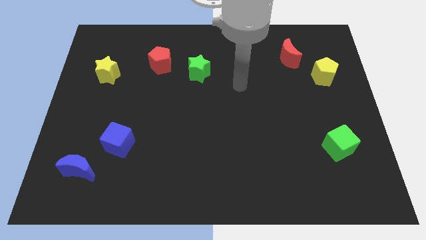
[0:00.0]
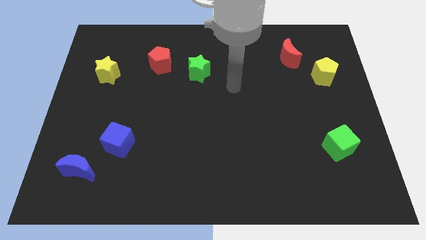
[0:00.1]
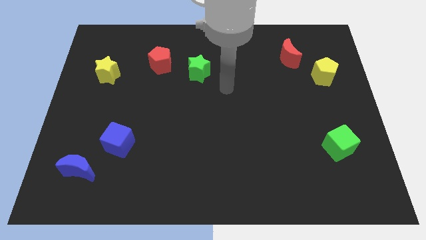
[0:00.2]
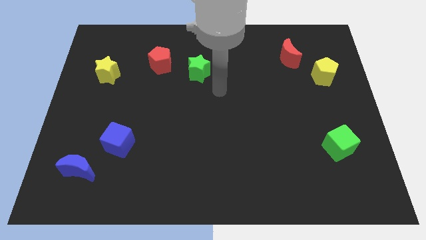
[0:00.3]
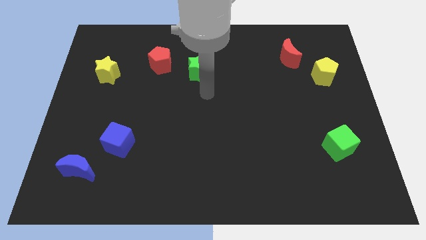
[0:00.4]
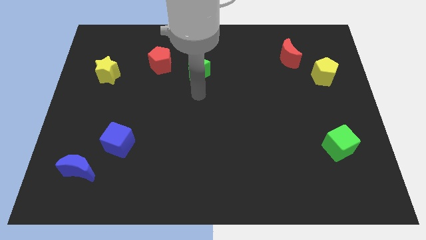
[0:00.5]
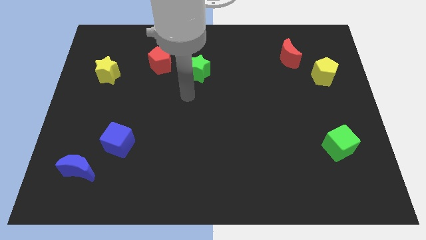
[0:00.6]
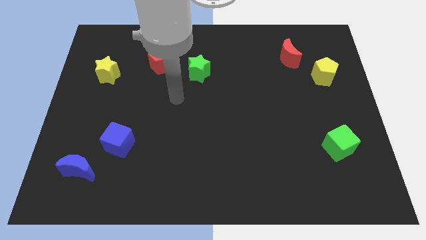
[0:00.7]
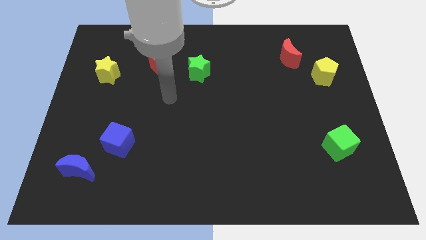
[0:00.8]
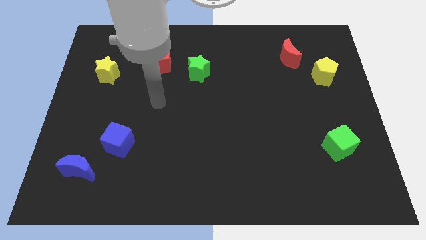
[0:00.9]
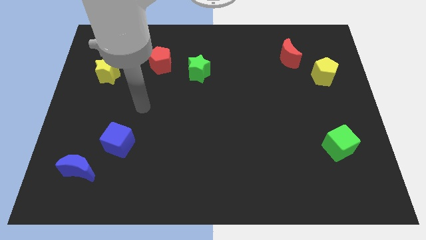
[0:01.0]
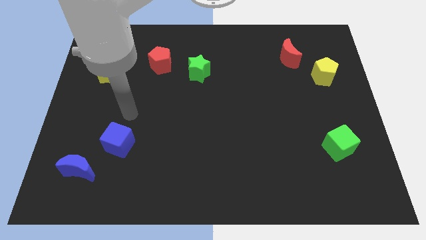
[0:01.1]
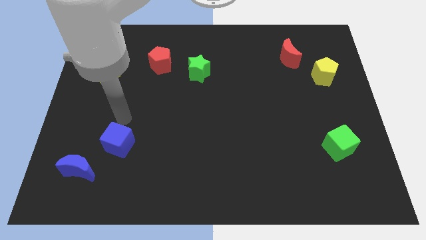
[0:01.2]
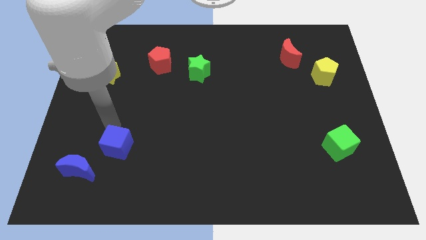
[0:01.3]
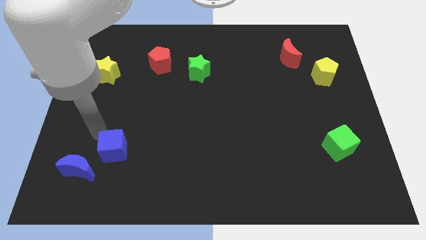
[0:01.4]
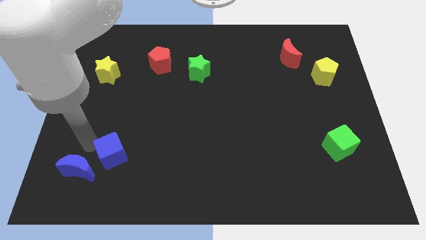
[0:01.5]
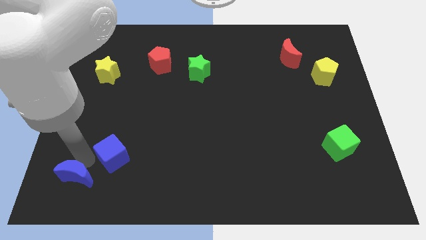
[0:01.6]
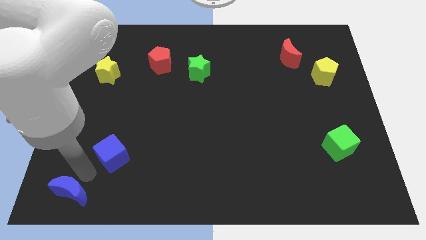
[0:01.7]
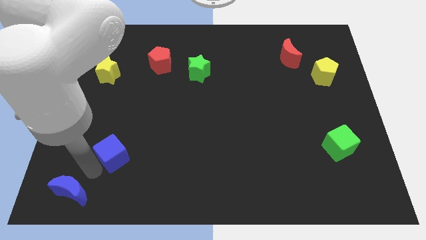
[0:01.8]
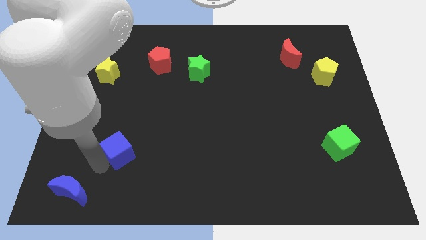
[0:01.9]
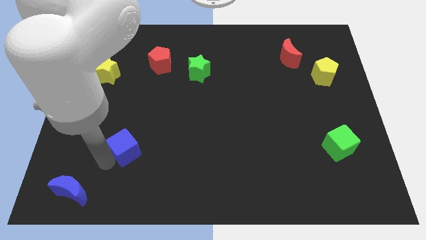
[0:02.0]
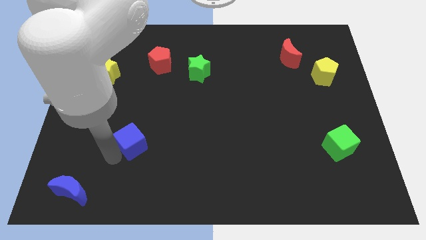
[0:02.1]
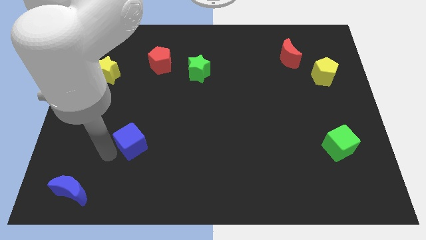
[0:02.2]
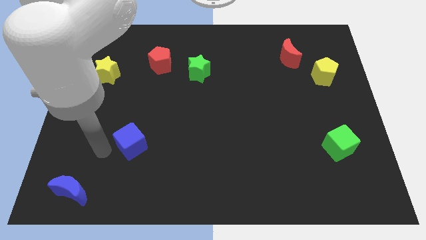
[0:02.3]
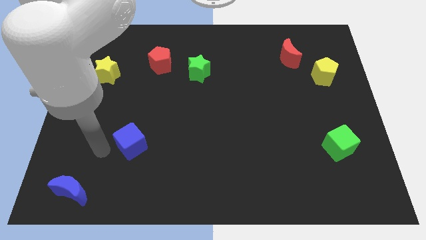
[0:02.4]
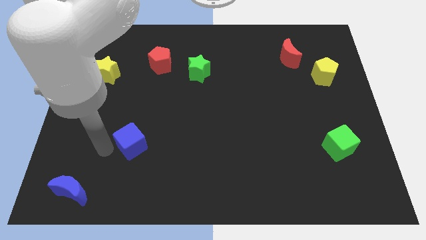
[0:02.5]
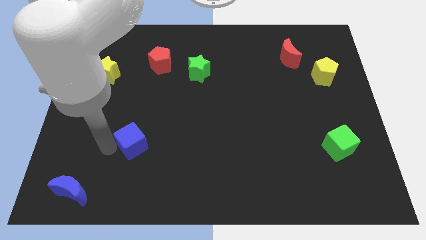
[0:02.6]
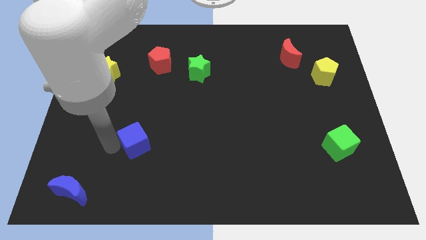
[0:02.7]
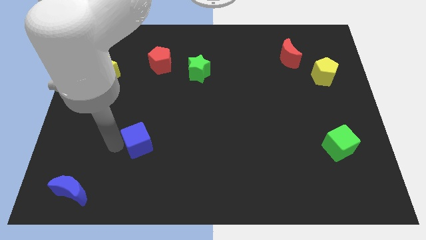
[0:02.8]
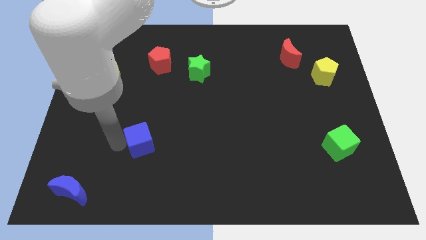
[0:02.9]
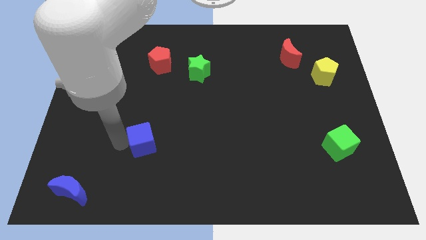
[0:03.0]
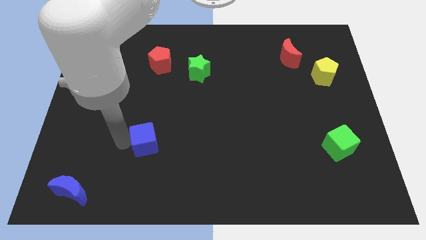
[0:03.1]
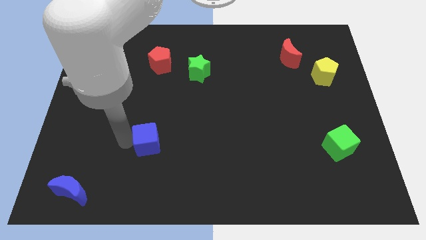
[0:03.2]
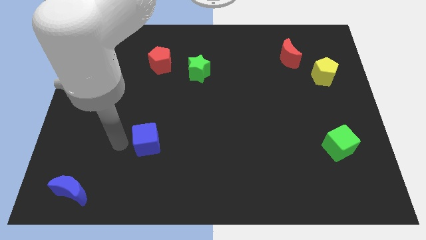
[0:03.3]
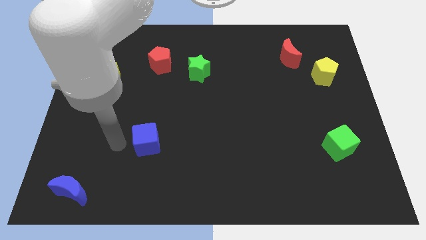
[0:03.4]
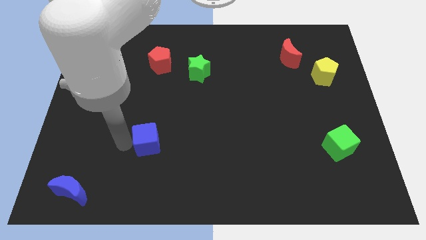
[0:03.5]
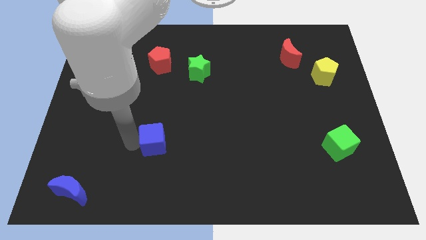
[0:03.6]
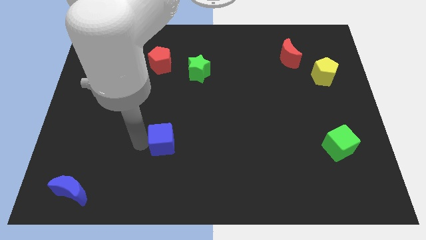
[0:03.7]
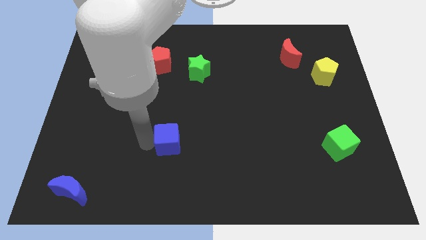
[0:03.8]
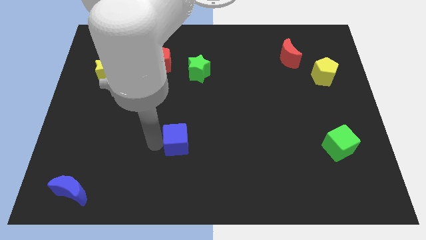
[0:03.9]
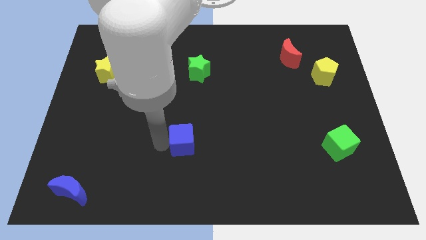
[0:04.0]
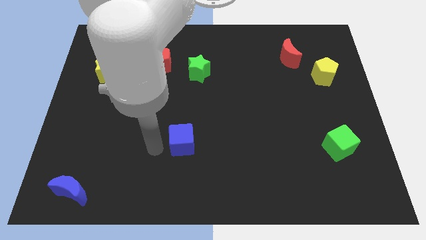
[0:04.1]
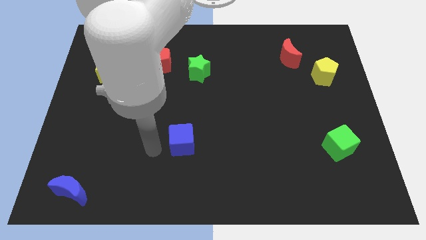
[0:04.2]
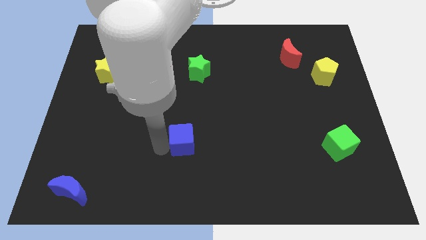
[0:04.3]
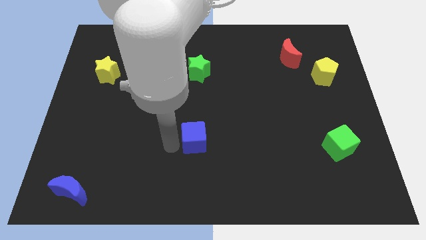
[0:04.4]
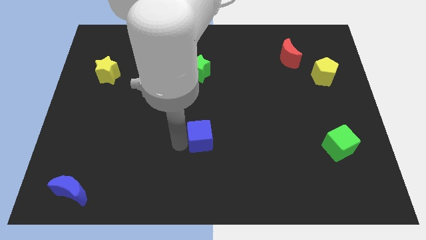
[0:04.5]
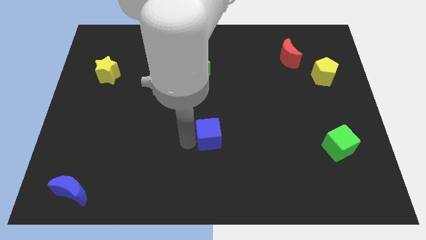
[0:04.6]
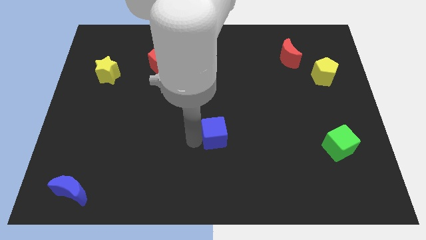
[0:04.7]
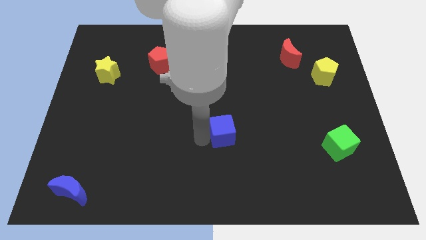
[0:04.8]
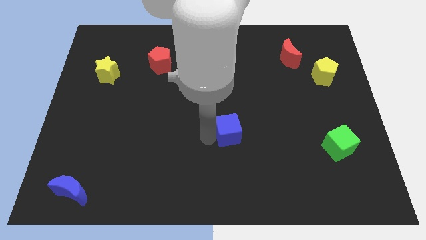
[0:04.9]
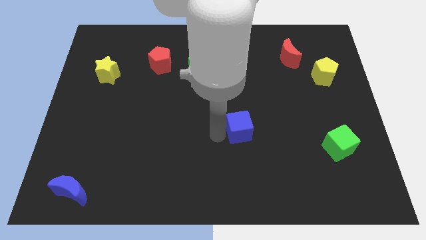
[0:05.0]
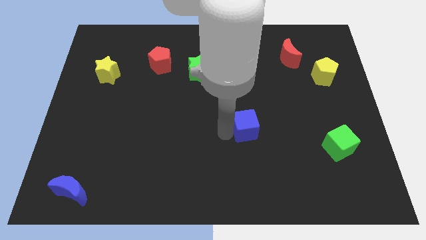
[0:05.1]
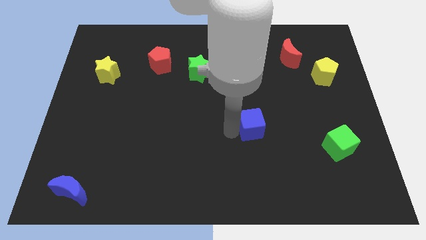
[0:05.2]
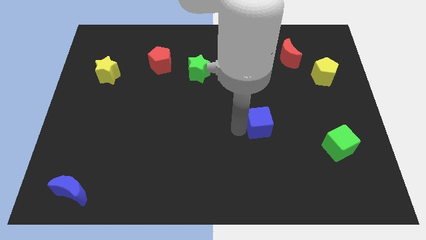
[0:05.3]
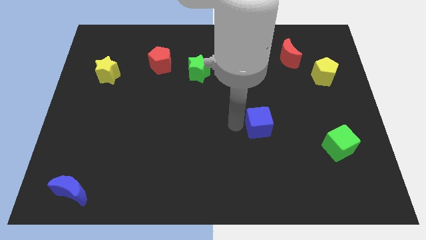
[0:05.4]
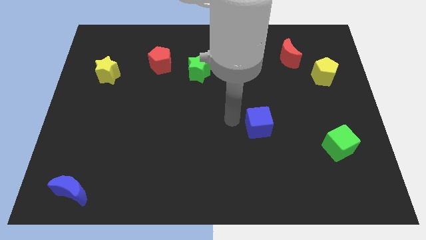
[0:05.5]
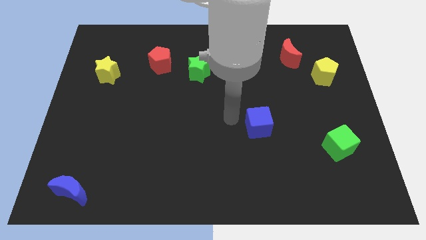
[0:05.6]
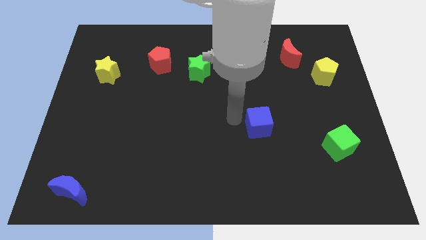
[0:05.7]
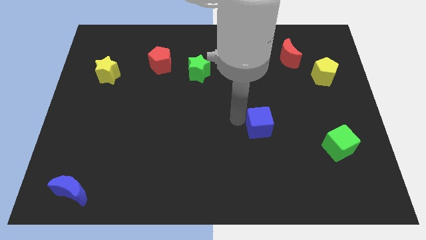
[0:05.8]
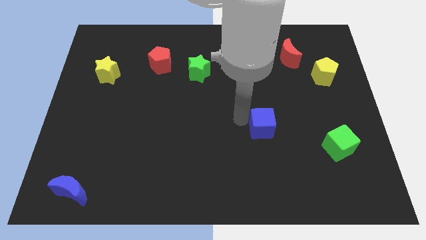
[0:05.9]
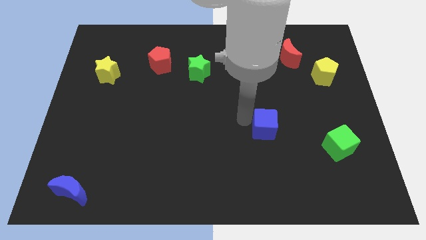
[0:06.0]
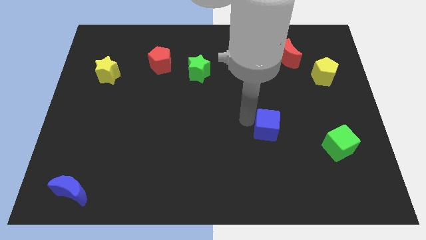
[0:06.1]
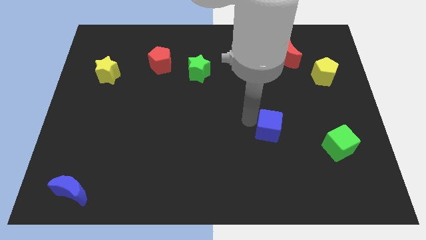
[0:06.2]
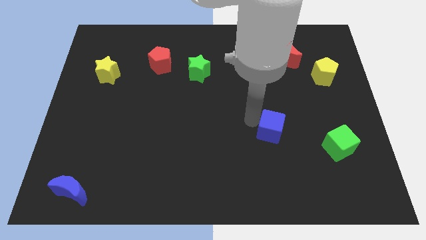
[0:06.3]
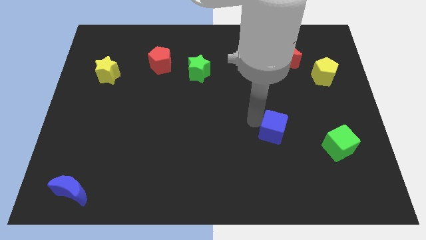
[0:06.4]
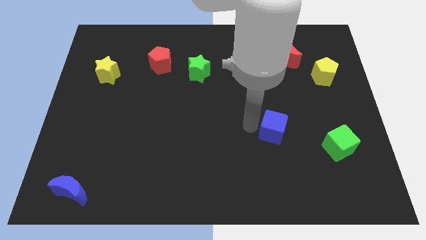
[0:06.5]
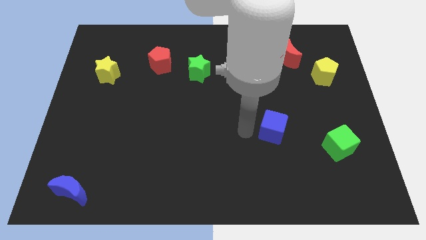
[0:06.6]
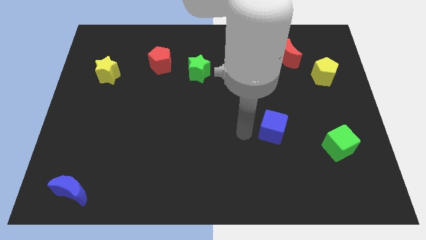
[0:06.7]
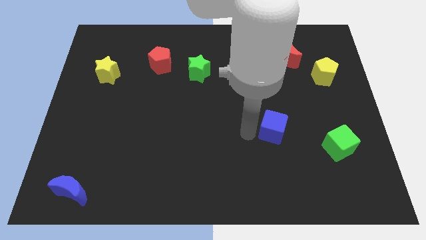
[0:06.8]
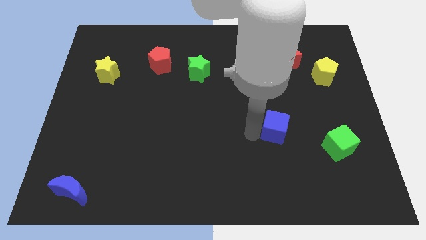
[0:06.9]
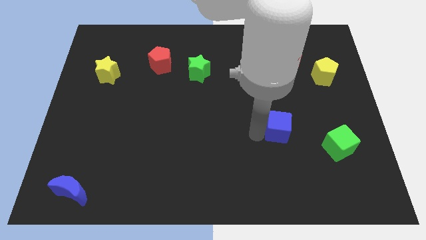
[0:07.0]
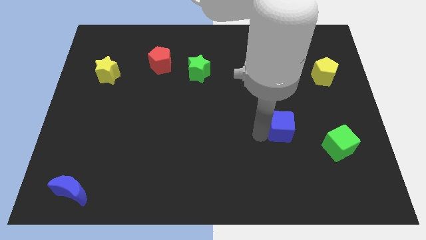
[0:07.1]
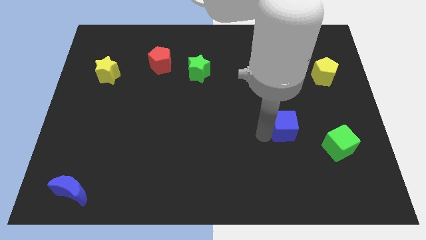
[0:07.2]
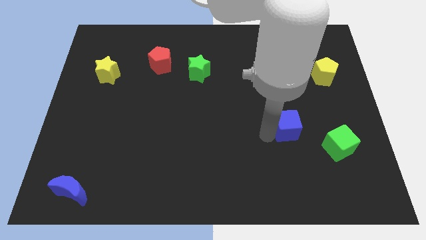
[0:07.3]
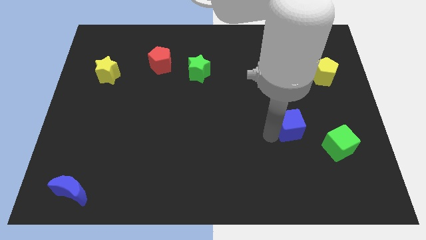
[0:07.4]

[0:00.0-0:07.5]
slide the blue cube to the top left side of the green cube

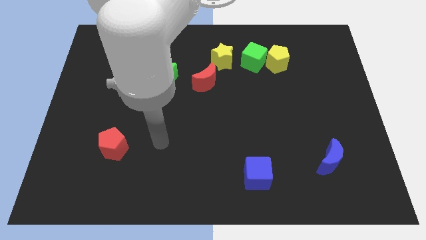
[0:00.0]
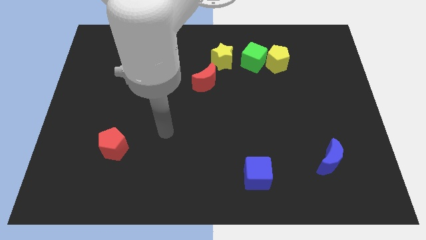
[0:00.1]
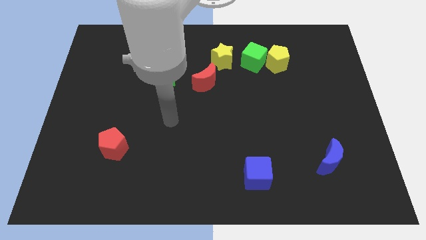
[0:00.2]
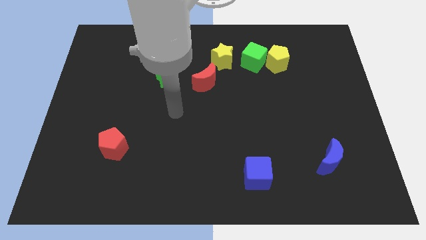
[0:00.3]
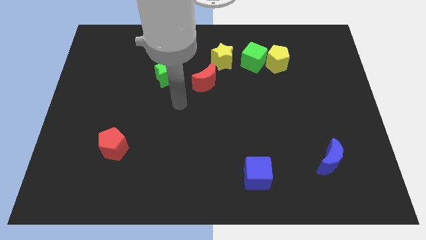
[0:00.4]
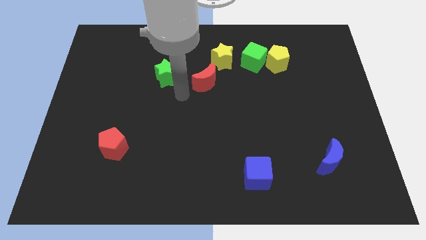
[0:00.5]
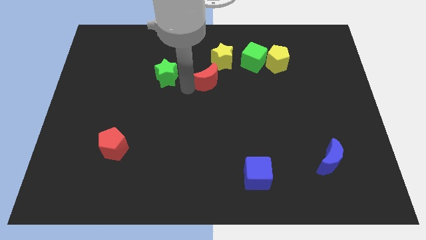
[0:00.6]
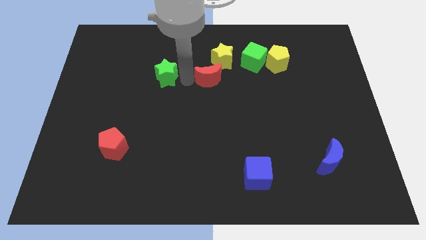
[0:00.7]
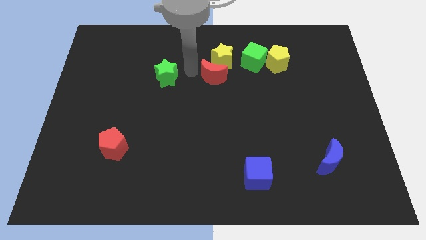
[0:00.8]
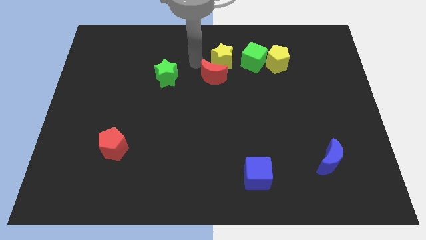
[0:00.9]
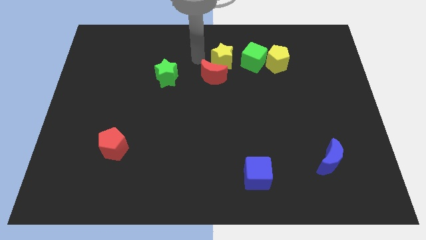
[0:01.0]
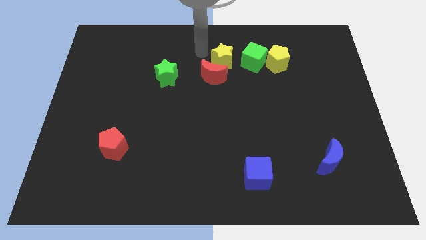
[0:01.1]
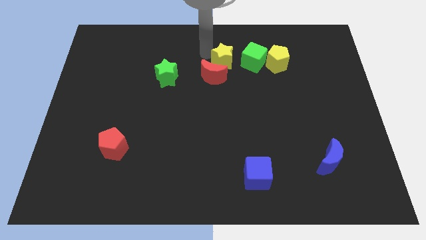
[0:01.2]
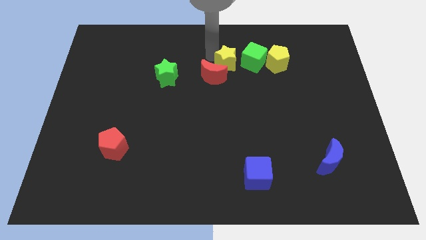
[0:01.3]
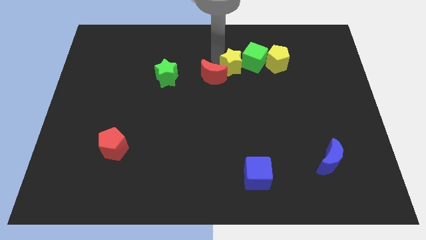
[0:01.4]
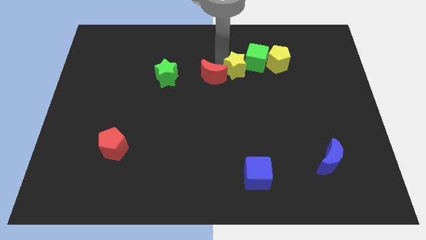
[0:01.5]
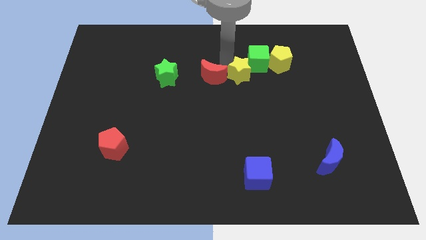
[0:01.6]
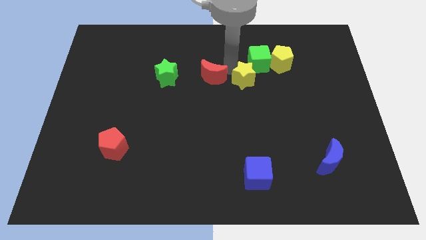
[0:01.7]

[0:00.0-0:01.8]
move the yellow star to the bottom left side of the yellow pentagon
